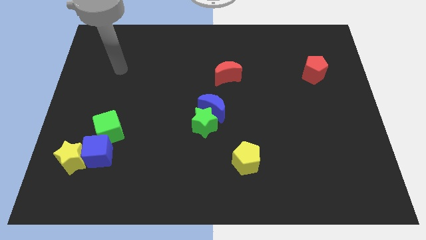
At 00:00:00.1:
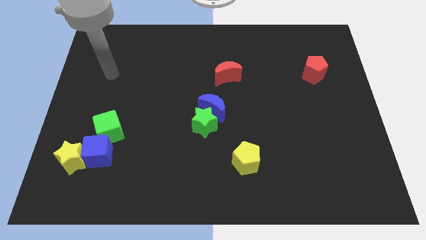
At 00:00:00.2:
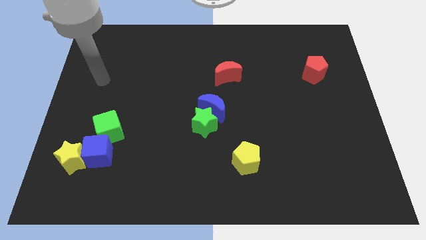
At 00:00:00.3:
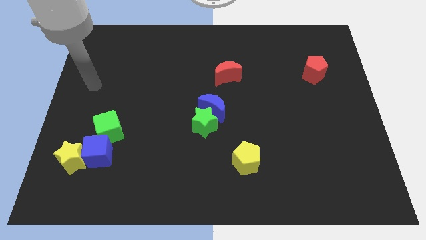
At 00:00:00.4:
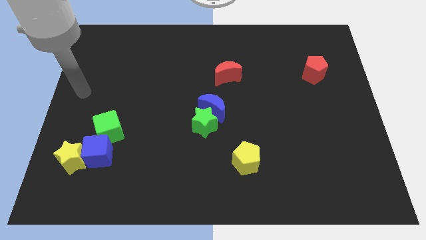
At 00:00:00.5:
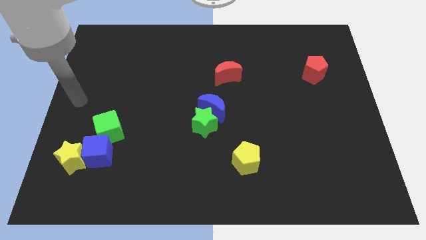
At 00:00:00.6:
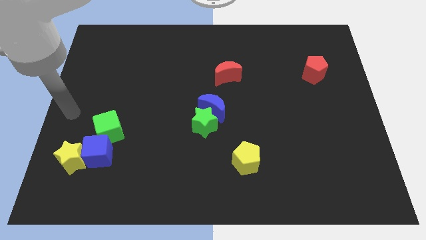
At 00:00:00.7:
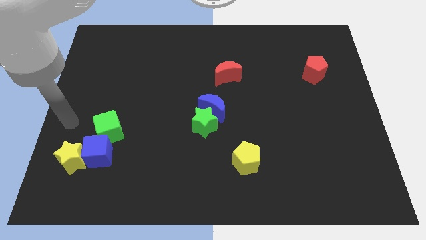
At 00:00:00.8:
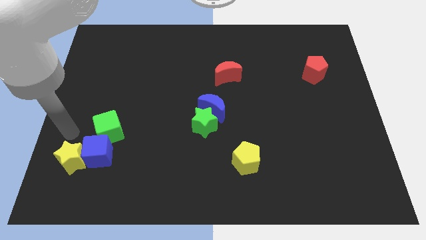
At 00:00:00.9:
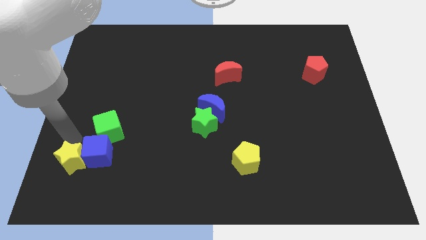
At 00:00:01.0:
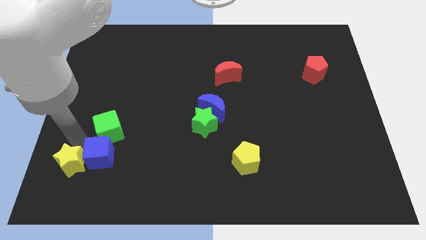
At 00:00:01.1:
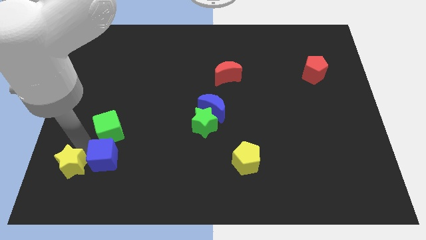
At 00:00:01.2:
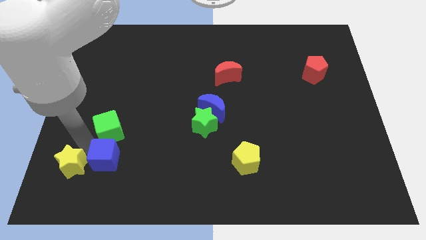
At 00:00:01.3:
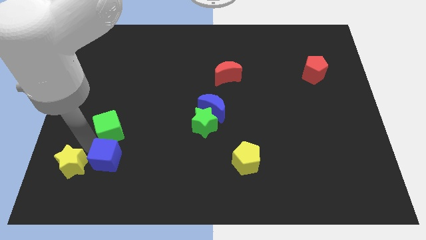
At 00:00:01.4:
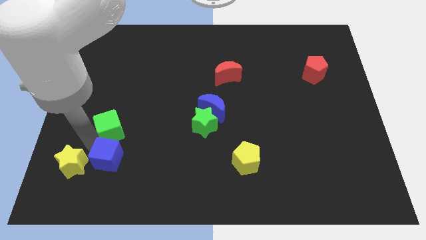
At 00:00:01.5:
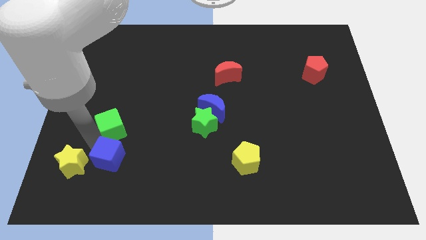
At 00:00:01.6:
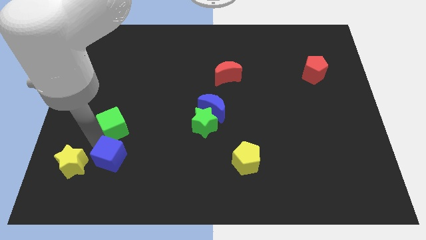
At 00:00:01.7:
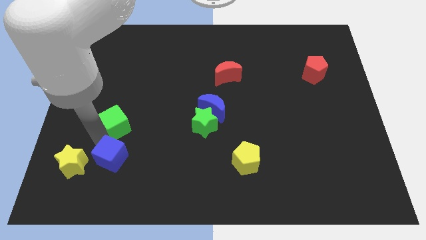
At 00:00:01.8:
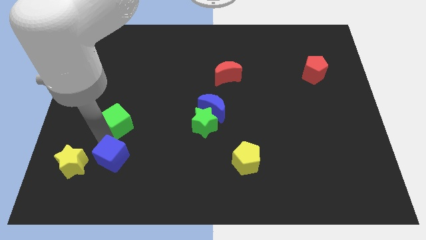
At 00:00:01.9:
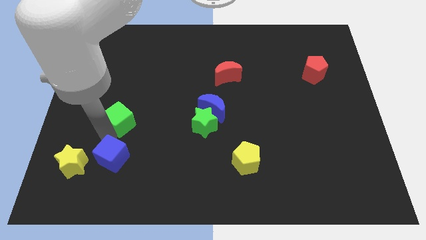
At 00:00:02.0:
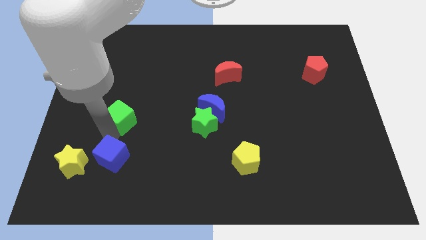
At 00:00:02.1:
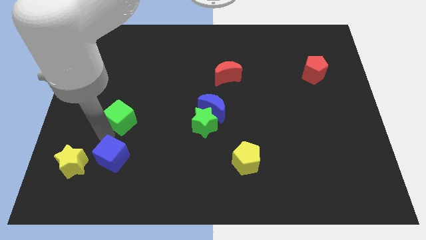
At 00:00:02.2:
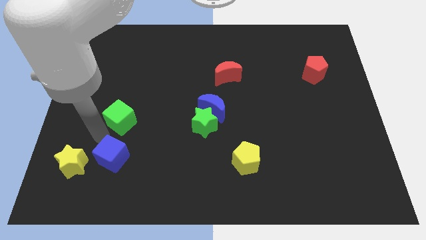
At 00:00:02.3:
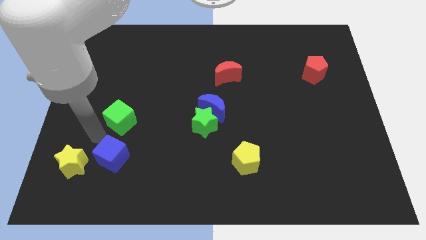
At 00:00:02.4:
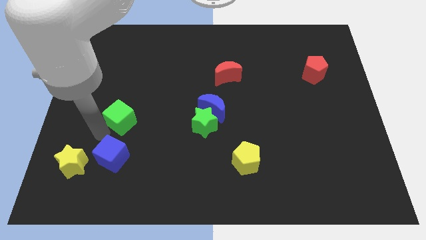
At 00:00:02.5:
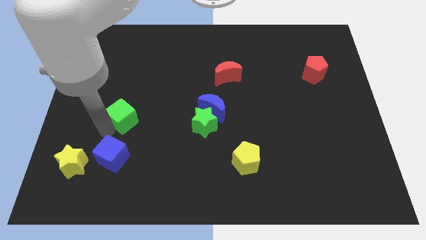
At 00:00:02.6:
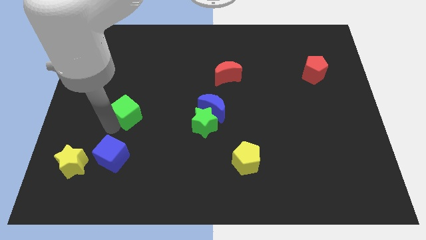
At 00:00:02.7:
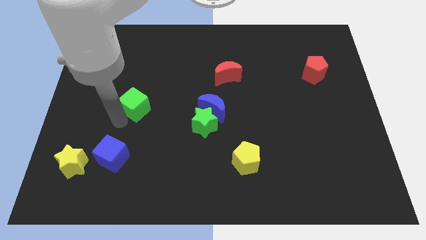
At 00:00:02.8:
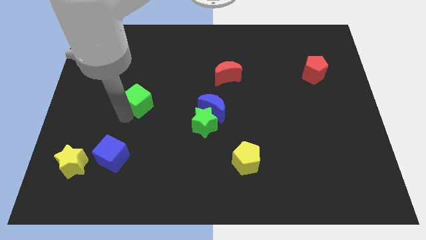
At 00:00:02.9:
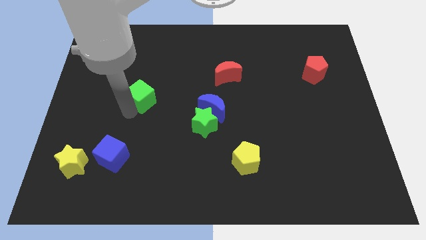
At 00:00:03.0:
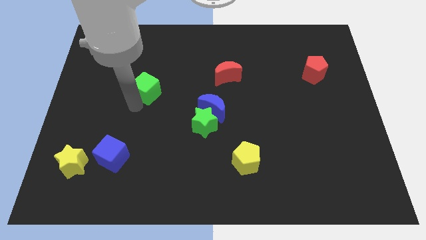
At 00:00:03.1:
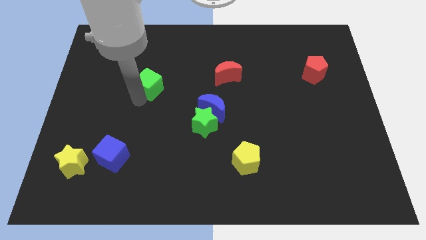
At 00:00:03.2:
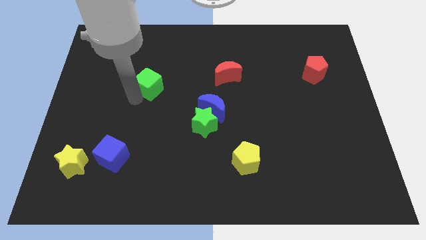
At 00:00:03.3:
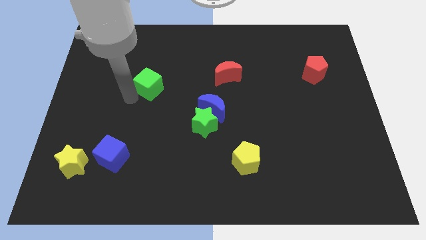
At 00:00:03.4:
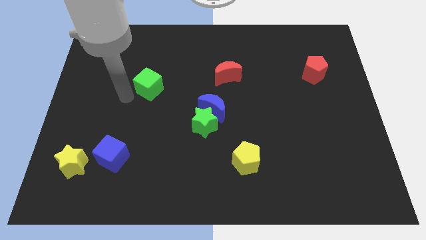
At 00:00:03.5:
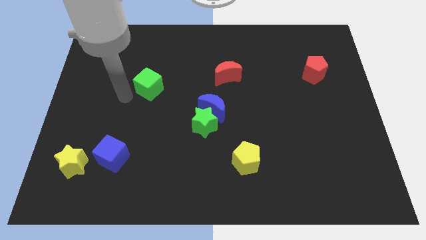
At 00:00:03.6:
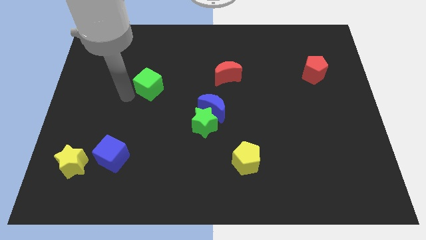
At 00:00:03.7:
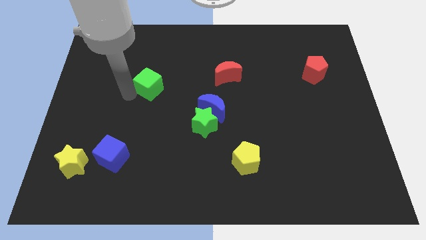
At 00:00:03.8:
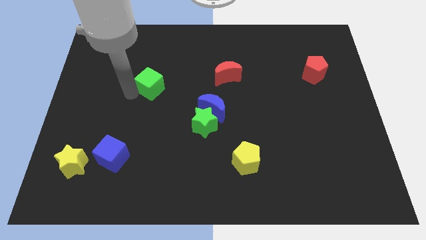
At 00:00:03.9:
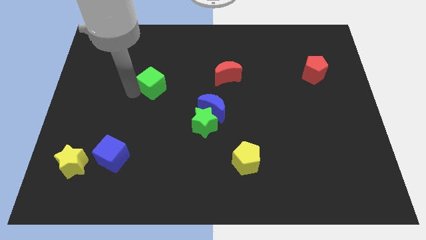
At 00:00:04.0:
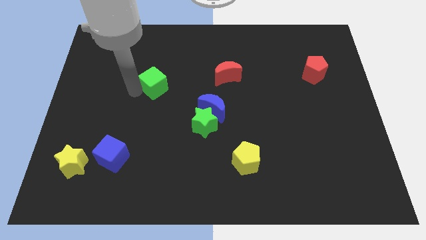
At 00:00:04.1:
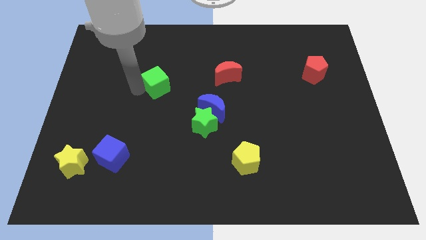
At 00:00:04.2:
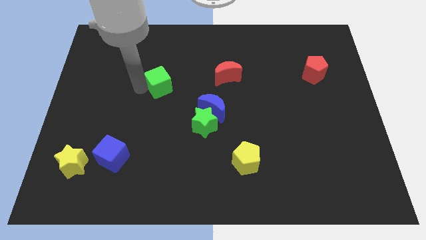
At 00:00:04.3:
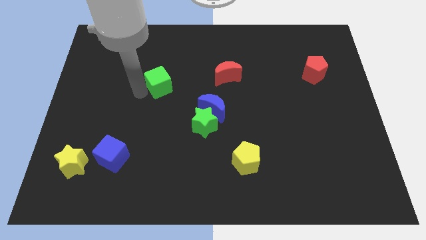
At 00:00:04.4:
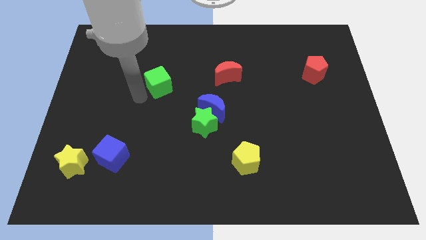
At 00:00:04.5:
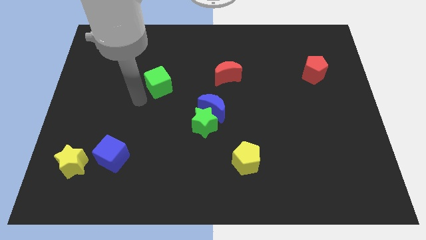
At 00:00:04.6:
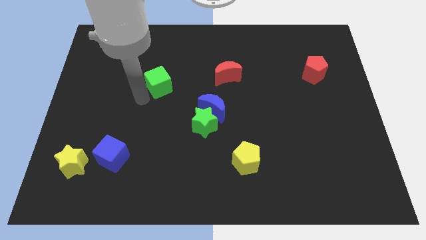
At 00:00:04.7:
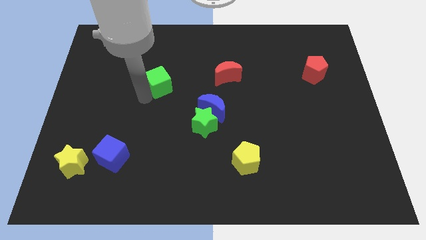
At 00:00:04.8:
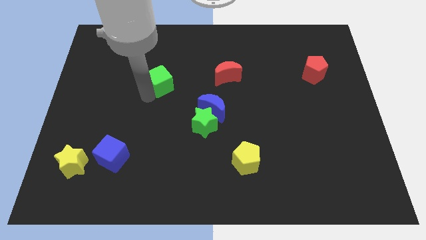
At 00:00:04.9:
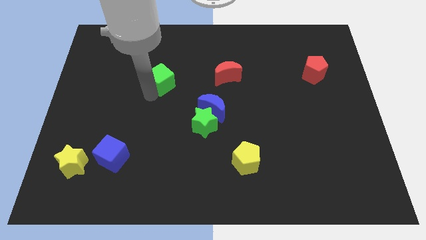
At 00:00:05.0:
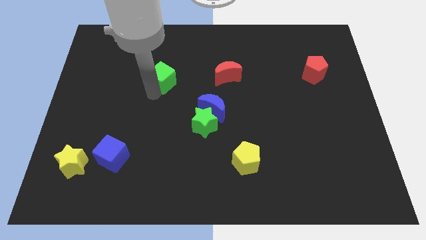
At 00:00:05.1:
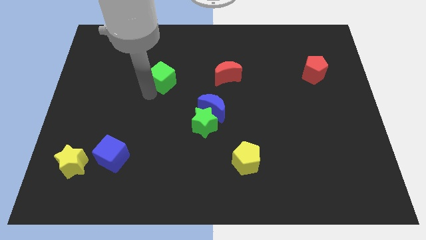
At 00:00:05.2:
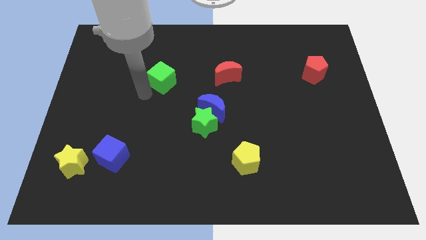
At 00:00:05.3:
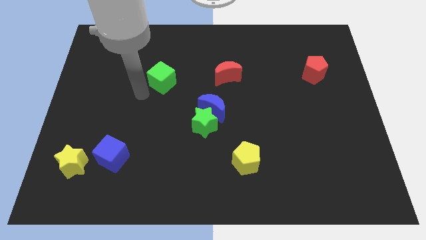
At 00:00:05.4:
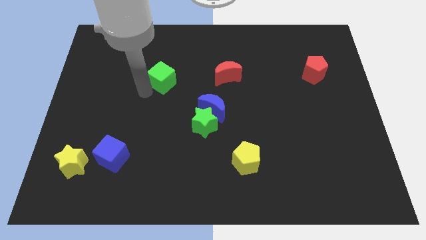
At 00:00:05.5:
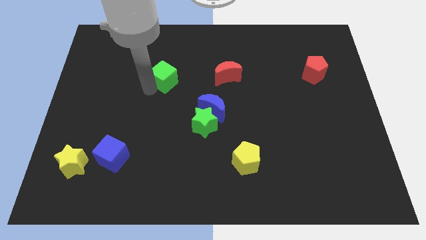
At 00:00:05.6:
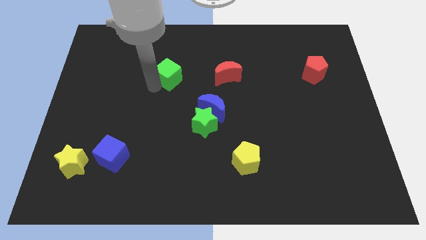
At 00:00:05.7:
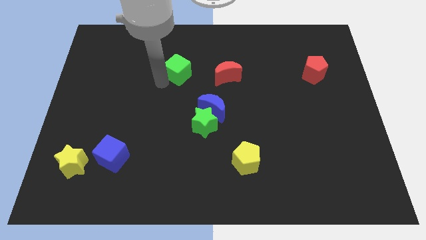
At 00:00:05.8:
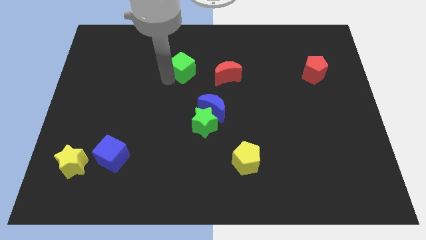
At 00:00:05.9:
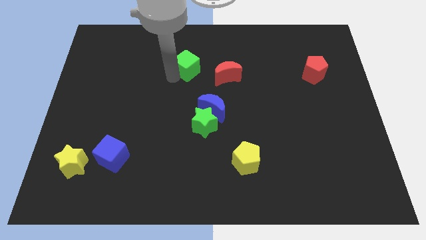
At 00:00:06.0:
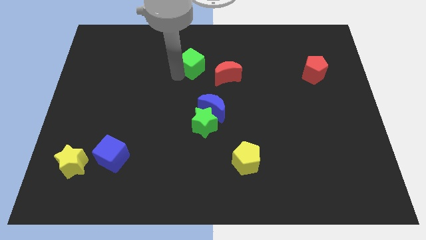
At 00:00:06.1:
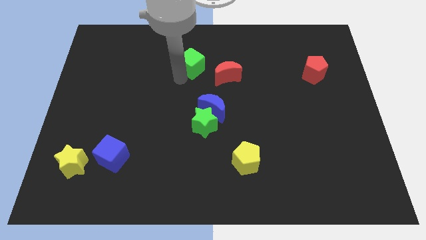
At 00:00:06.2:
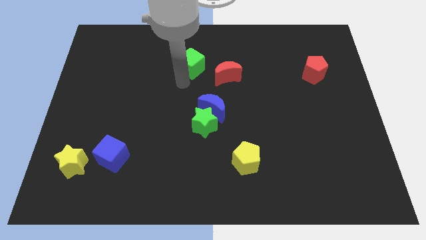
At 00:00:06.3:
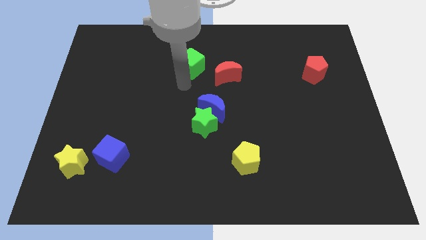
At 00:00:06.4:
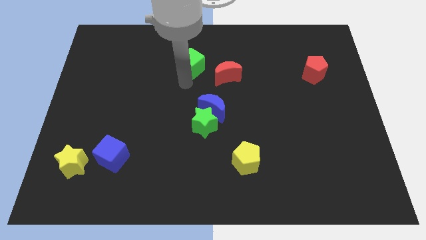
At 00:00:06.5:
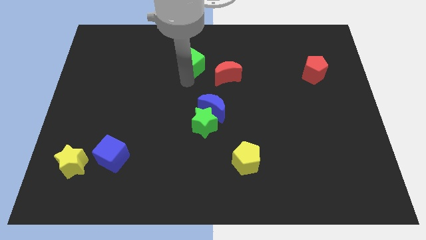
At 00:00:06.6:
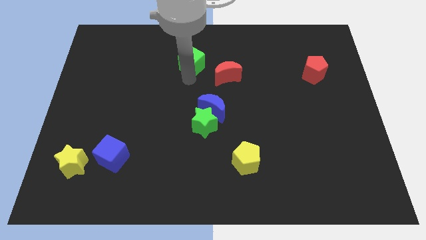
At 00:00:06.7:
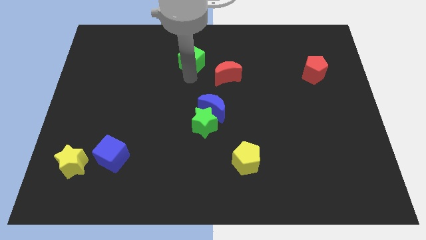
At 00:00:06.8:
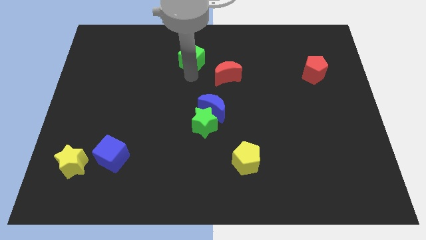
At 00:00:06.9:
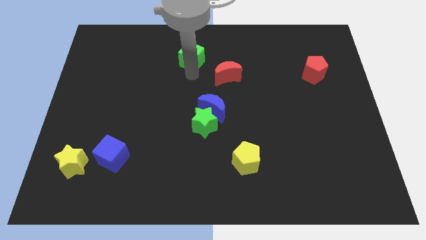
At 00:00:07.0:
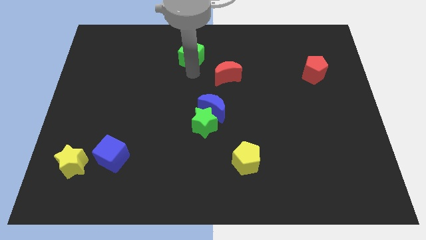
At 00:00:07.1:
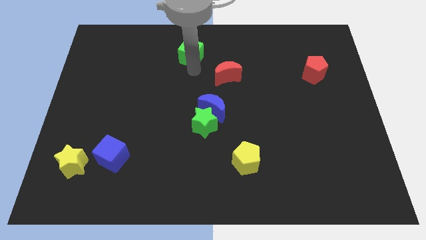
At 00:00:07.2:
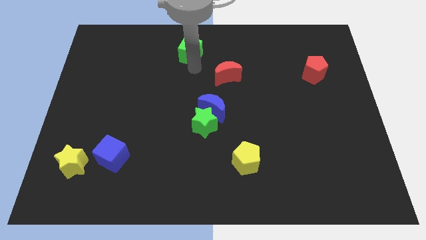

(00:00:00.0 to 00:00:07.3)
move the green cube to the top side
